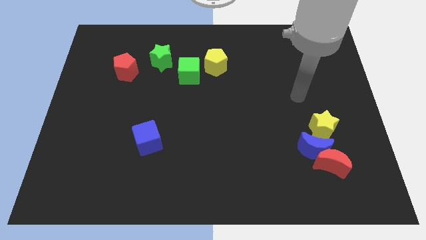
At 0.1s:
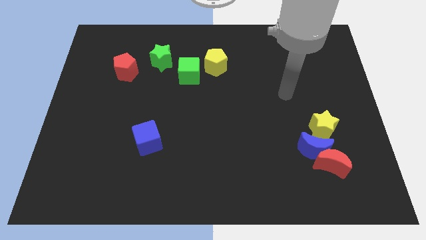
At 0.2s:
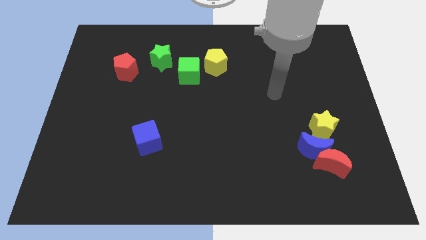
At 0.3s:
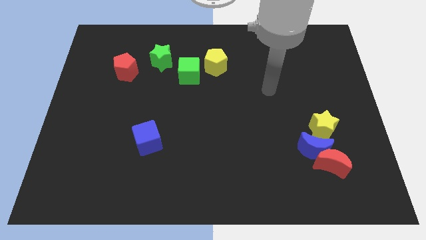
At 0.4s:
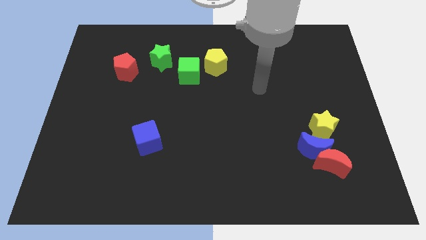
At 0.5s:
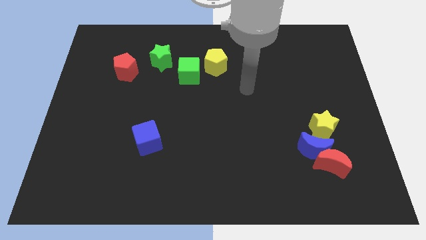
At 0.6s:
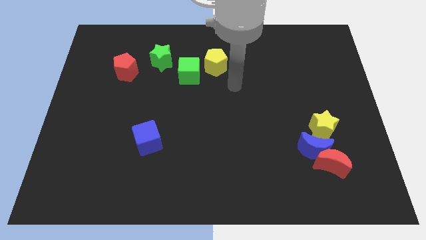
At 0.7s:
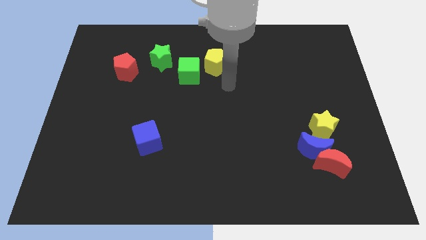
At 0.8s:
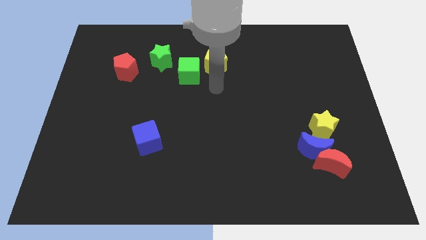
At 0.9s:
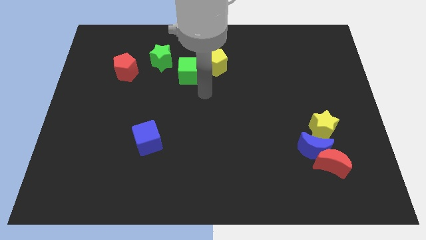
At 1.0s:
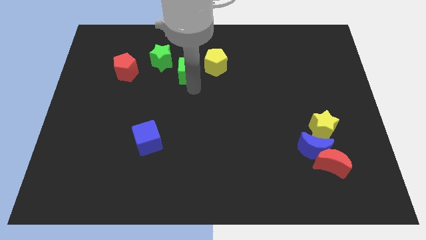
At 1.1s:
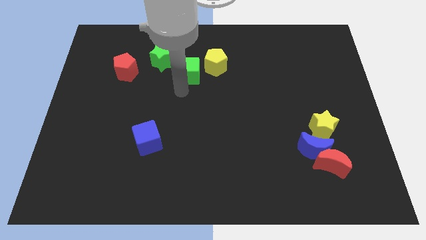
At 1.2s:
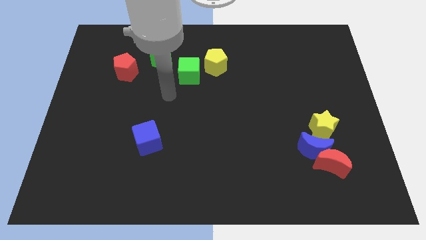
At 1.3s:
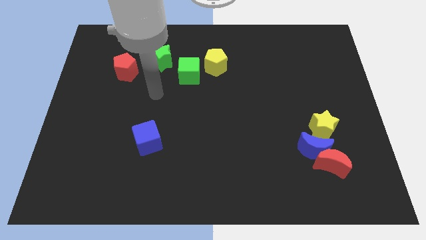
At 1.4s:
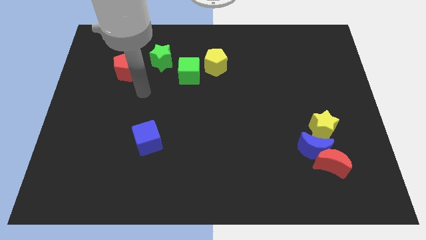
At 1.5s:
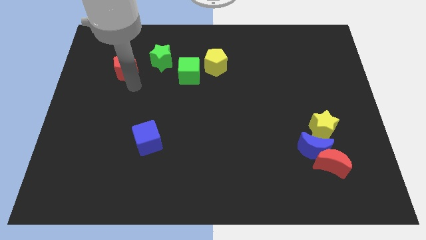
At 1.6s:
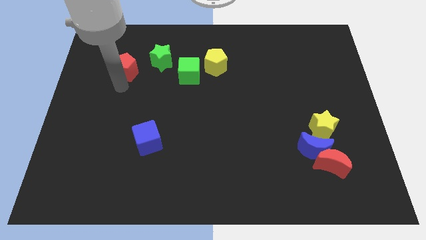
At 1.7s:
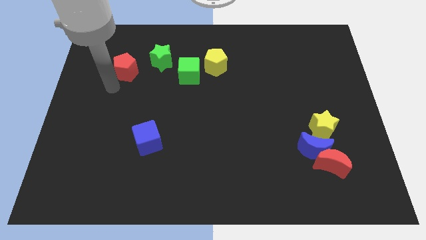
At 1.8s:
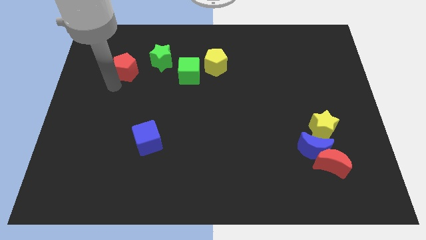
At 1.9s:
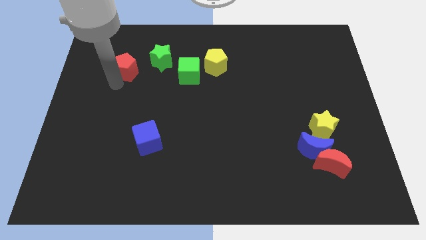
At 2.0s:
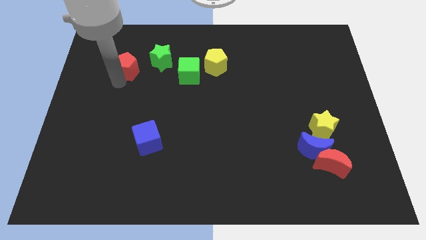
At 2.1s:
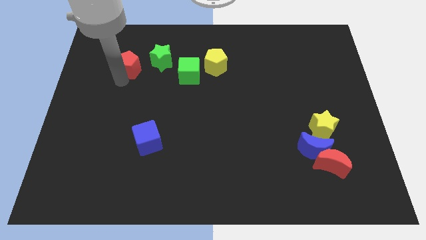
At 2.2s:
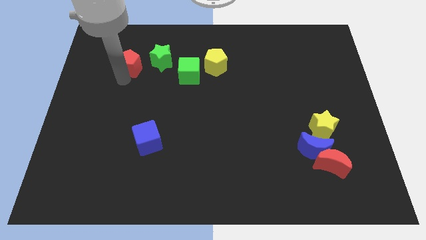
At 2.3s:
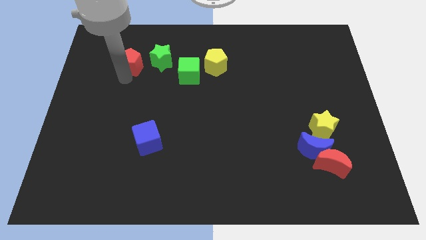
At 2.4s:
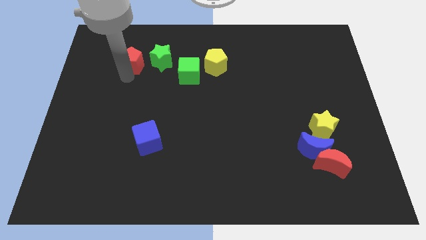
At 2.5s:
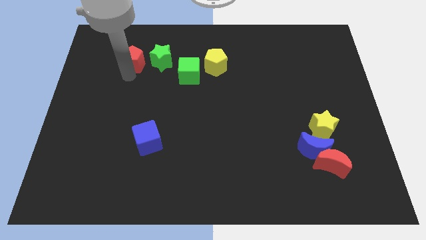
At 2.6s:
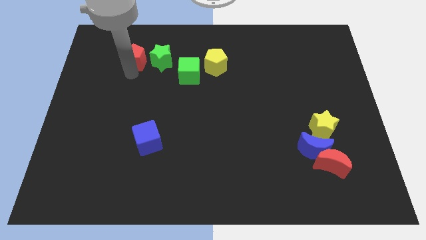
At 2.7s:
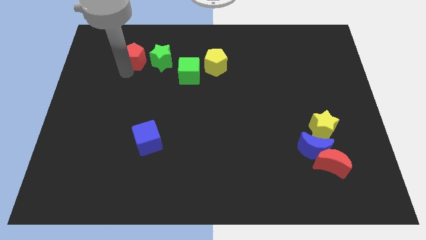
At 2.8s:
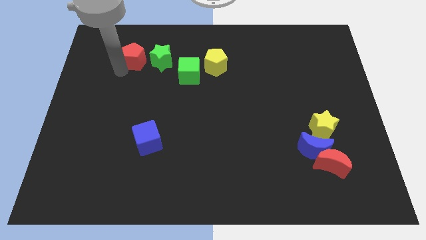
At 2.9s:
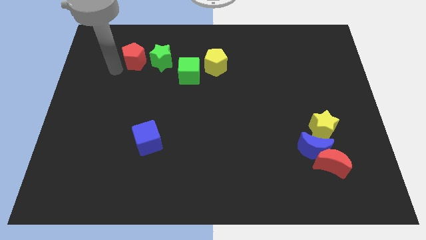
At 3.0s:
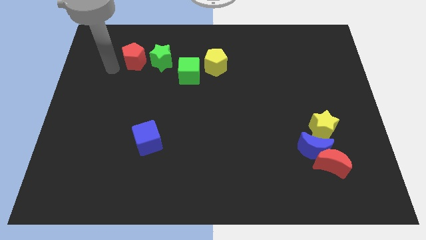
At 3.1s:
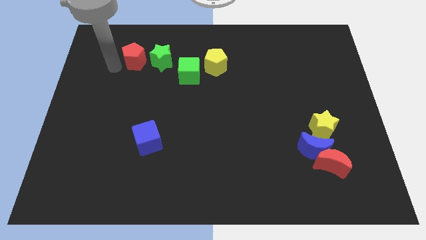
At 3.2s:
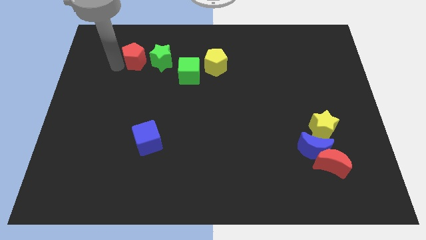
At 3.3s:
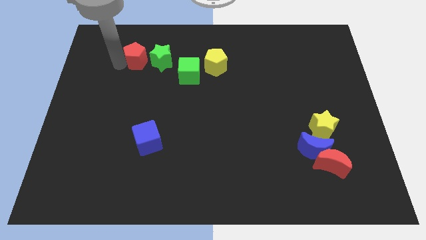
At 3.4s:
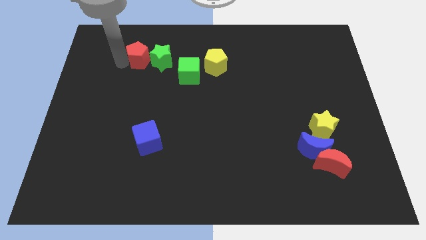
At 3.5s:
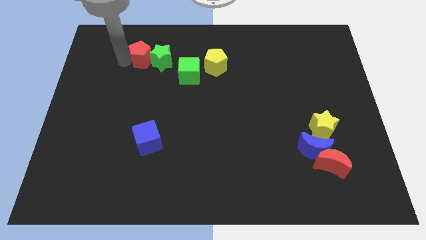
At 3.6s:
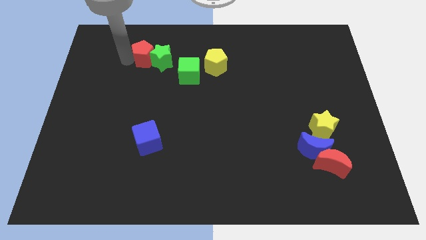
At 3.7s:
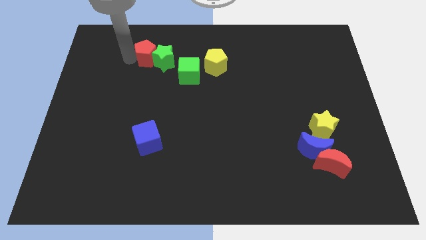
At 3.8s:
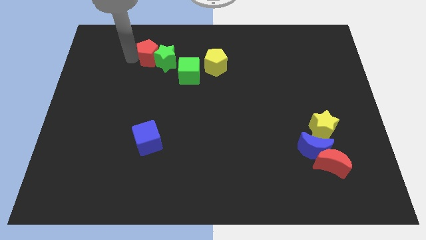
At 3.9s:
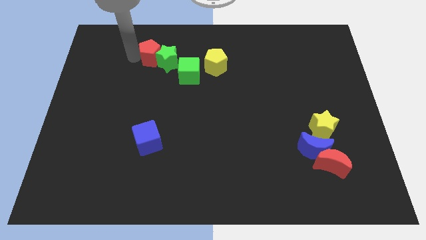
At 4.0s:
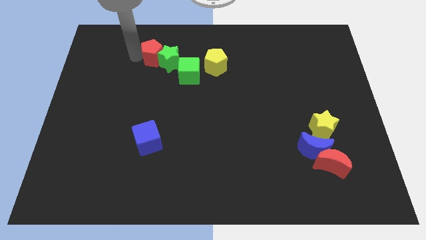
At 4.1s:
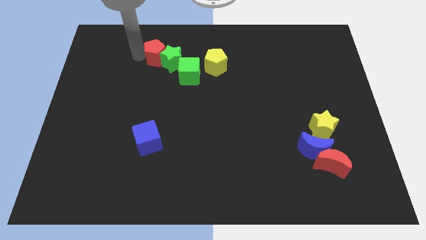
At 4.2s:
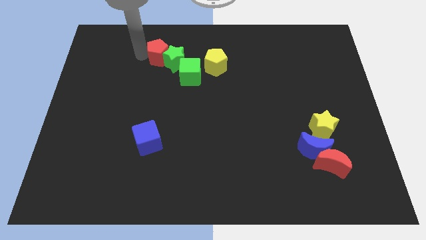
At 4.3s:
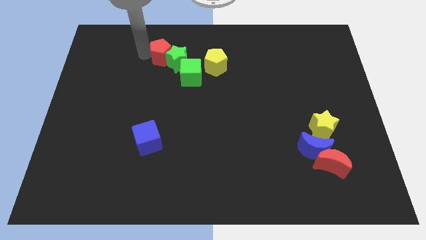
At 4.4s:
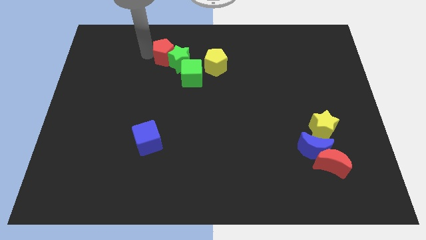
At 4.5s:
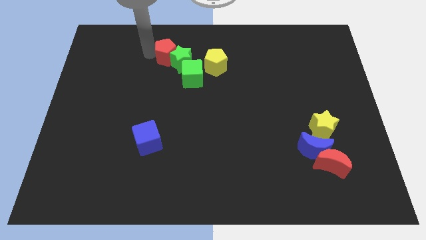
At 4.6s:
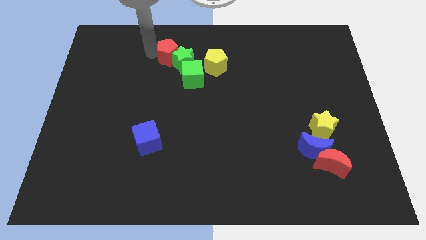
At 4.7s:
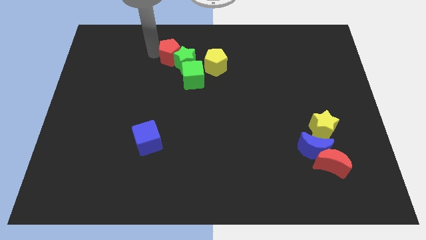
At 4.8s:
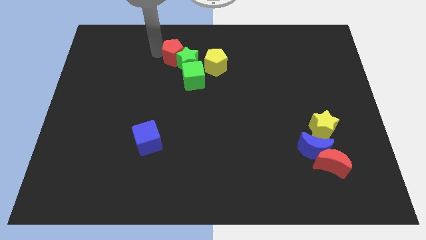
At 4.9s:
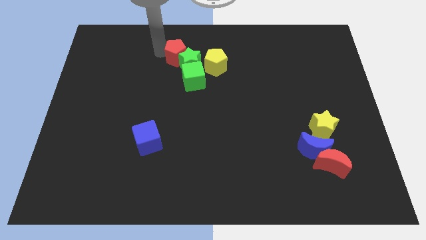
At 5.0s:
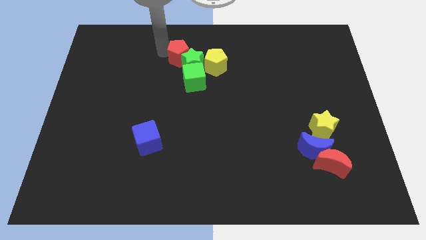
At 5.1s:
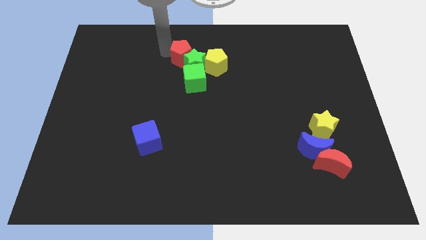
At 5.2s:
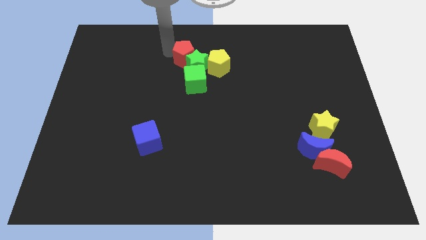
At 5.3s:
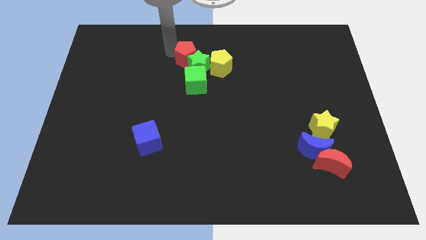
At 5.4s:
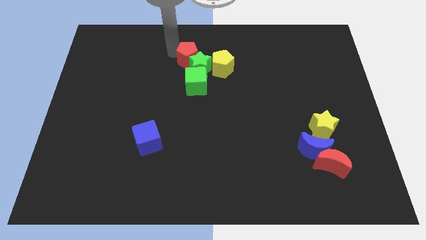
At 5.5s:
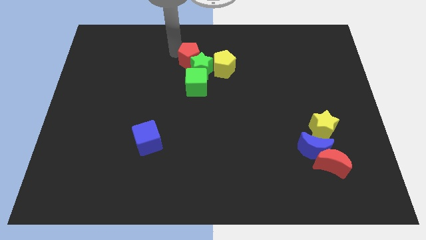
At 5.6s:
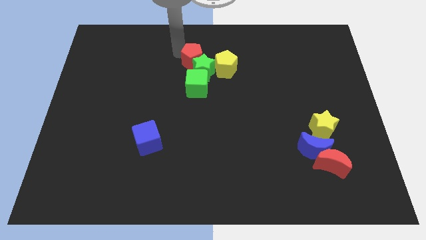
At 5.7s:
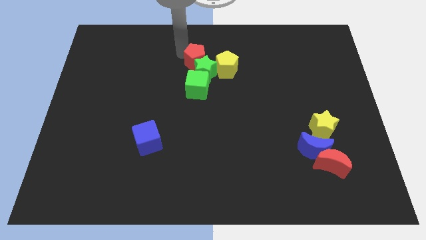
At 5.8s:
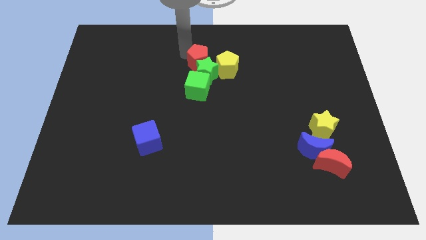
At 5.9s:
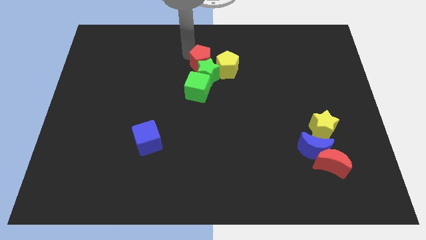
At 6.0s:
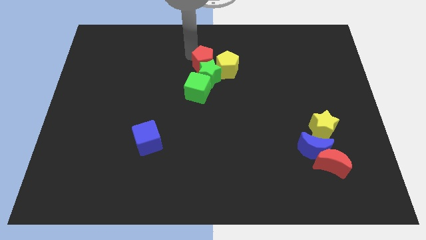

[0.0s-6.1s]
slide the red pentagon to the yellow pentagon

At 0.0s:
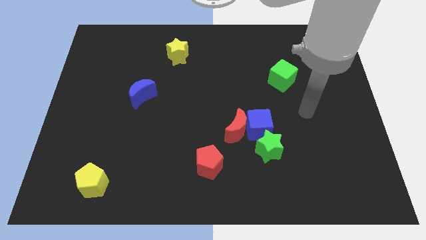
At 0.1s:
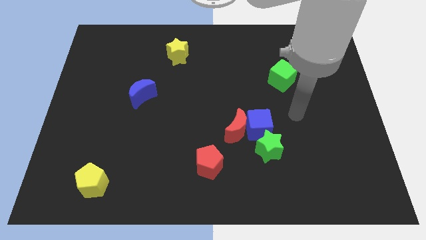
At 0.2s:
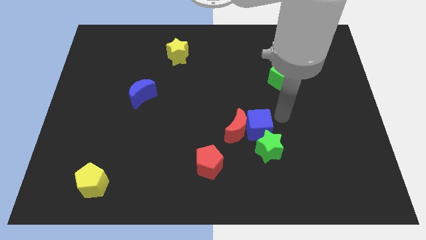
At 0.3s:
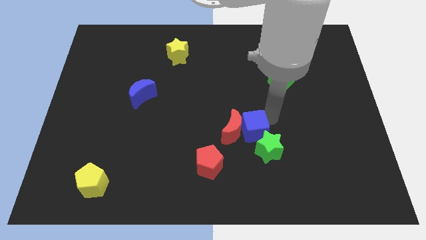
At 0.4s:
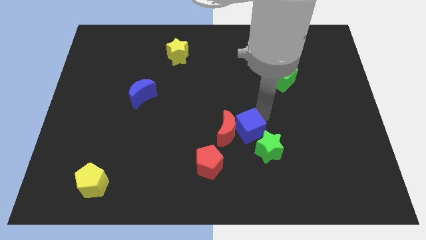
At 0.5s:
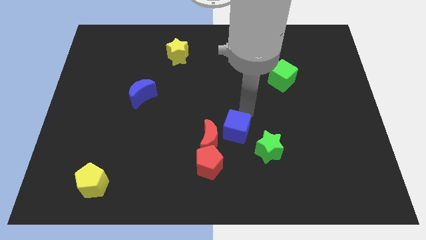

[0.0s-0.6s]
slide the red moon towards the red pentagon
